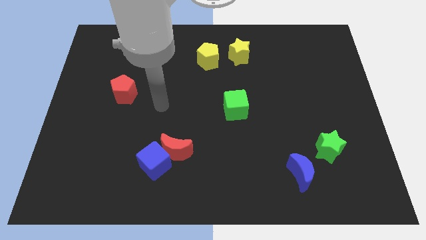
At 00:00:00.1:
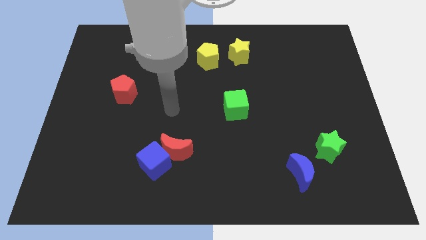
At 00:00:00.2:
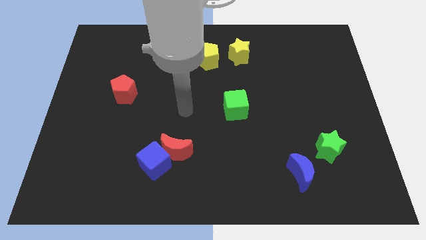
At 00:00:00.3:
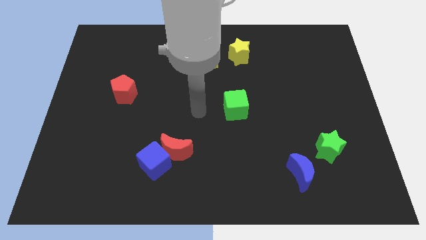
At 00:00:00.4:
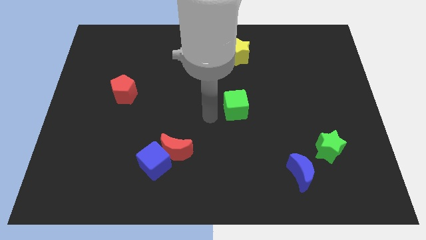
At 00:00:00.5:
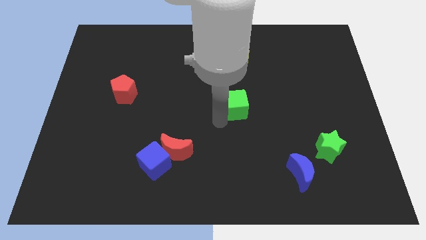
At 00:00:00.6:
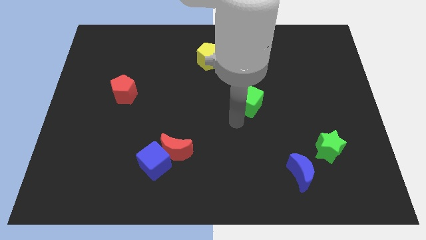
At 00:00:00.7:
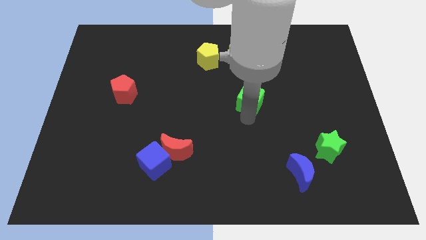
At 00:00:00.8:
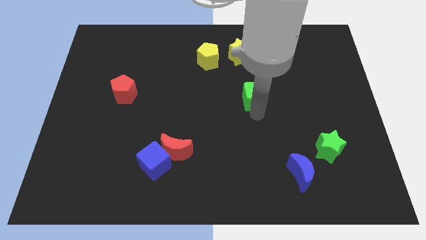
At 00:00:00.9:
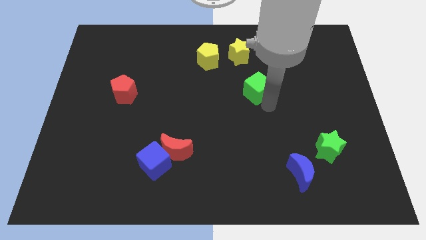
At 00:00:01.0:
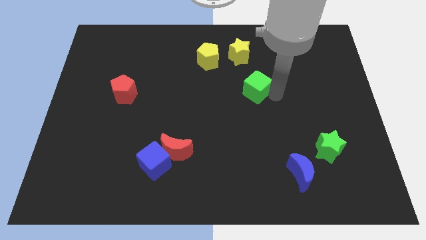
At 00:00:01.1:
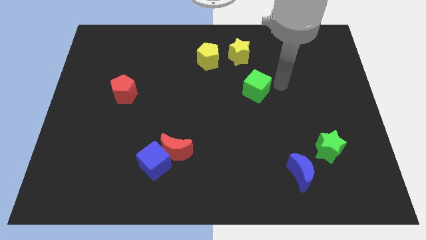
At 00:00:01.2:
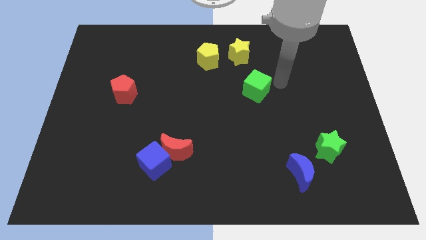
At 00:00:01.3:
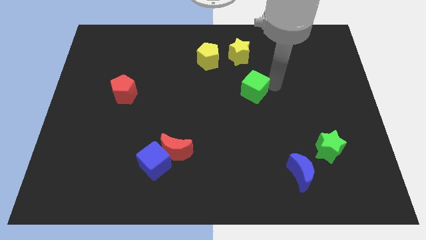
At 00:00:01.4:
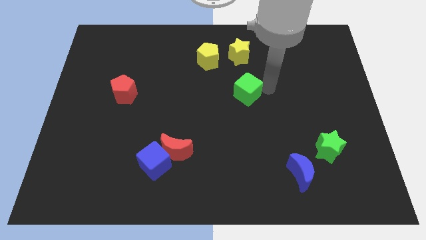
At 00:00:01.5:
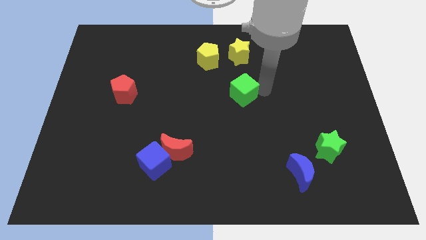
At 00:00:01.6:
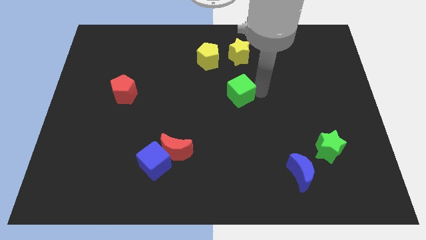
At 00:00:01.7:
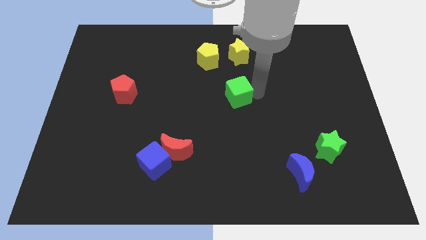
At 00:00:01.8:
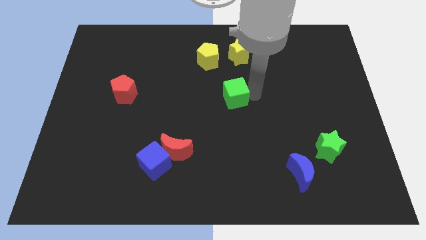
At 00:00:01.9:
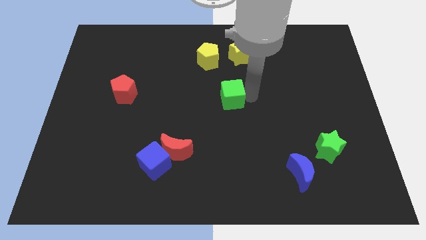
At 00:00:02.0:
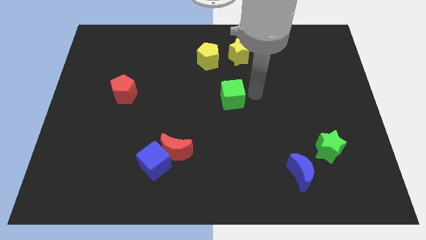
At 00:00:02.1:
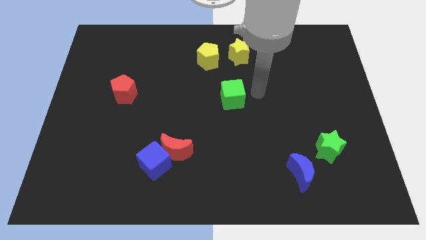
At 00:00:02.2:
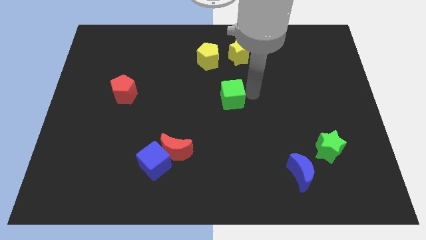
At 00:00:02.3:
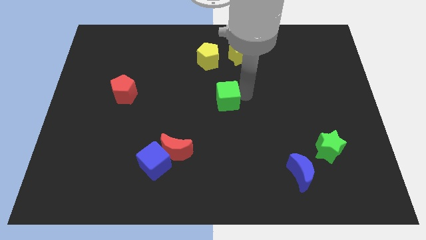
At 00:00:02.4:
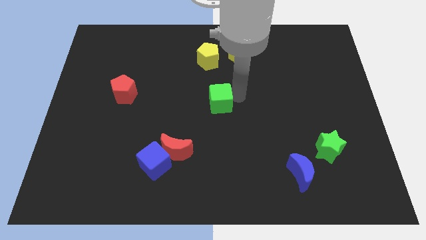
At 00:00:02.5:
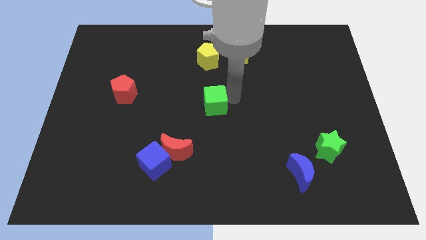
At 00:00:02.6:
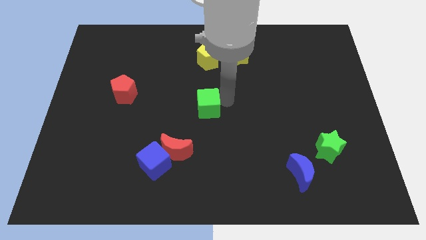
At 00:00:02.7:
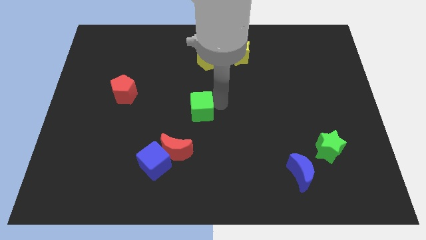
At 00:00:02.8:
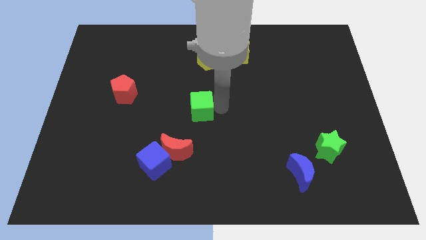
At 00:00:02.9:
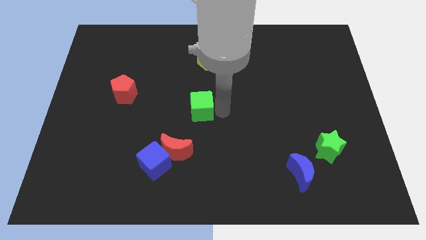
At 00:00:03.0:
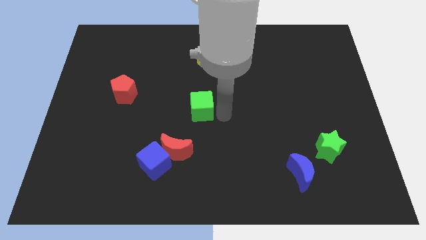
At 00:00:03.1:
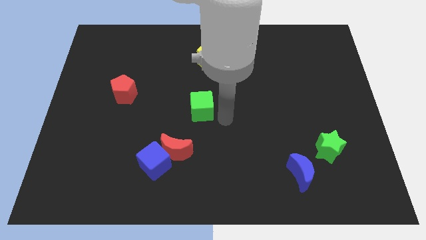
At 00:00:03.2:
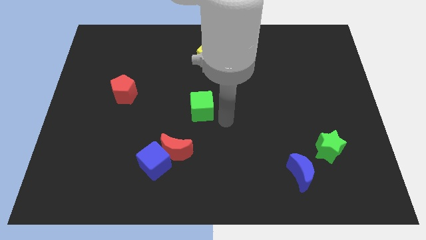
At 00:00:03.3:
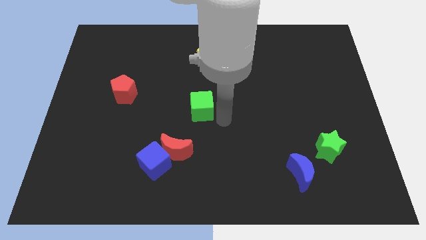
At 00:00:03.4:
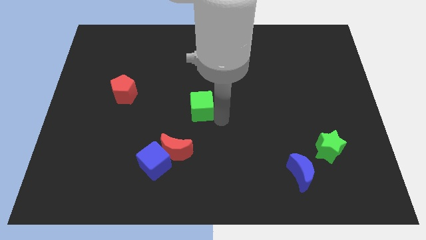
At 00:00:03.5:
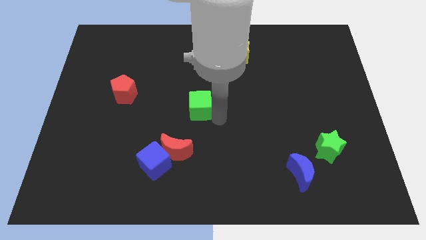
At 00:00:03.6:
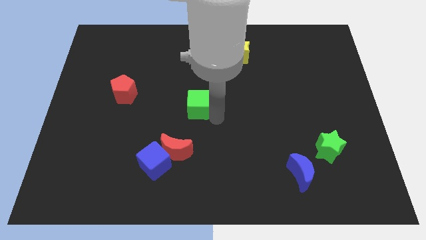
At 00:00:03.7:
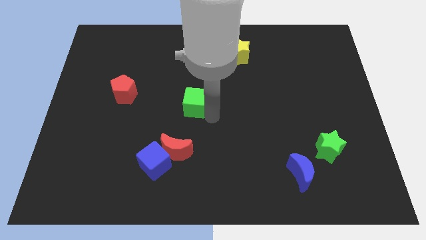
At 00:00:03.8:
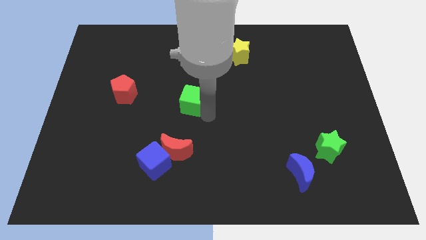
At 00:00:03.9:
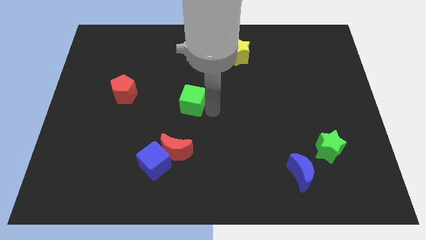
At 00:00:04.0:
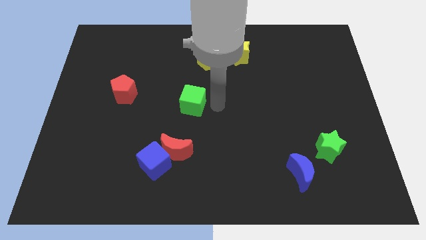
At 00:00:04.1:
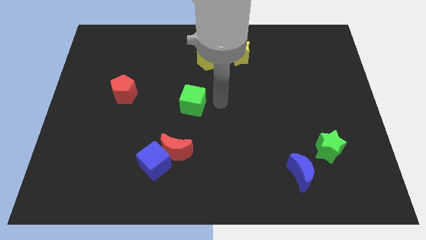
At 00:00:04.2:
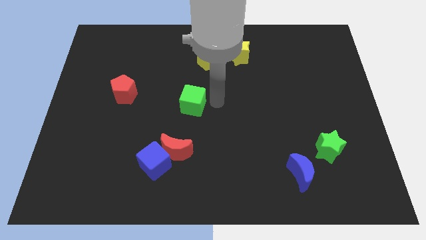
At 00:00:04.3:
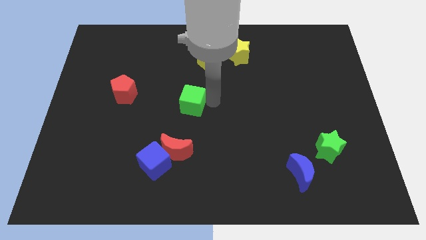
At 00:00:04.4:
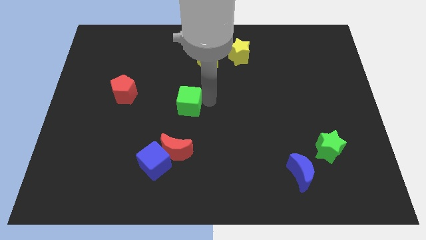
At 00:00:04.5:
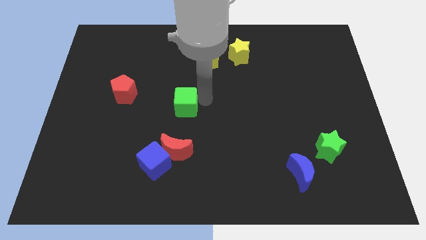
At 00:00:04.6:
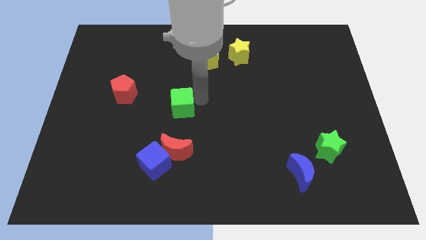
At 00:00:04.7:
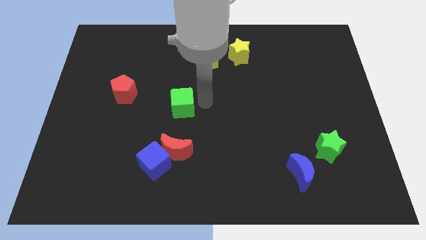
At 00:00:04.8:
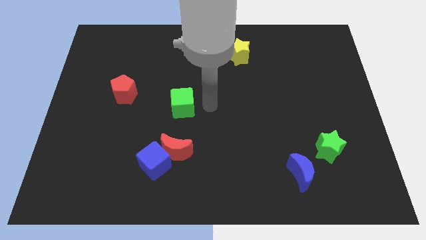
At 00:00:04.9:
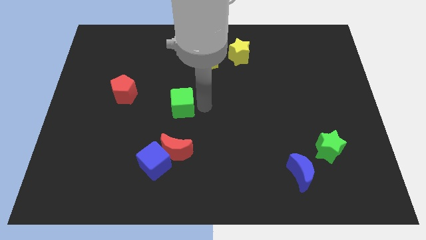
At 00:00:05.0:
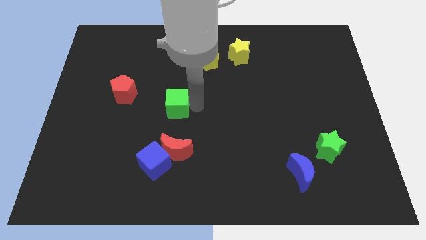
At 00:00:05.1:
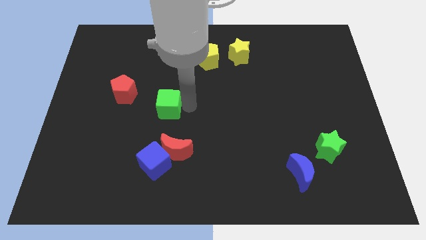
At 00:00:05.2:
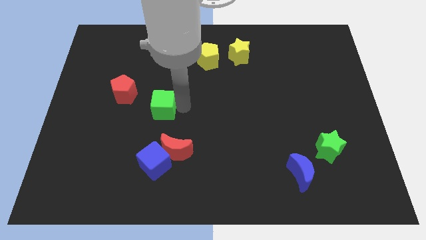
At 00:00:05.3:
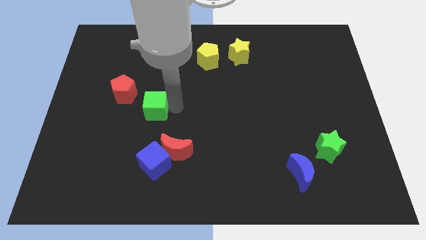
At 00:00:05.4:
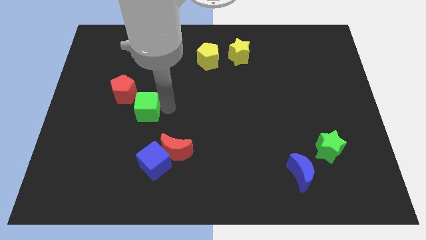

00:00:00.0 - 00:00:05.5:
push the green cube left

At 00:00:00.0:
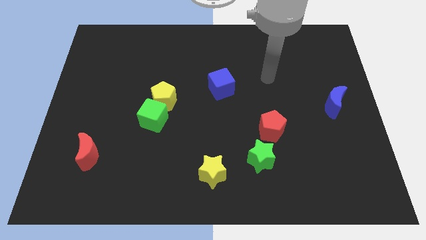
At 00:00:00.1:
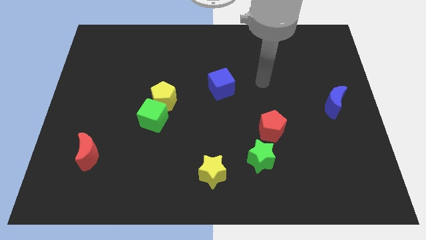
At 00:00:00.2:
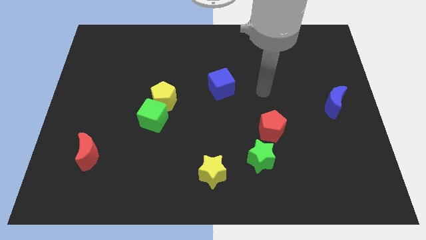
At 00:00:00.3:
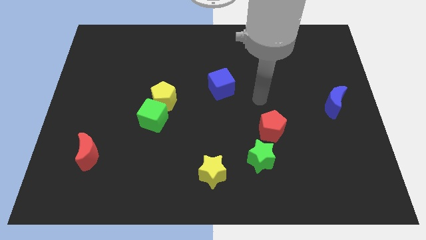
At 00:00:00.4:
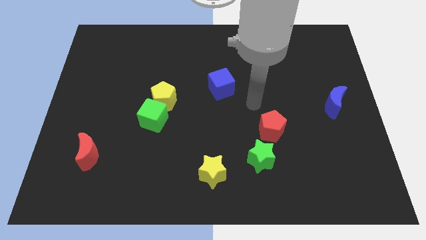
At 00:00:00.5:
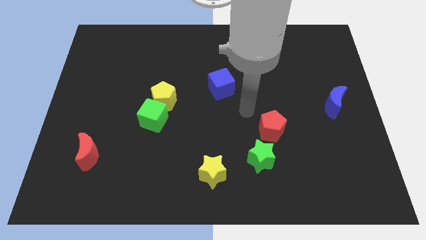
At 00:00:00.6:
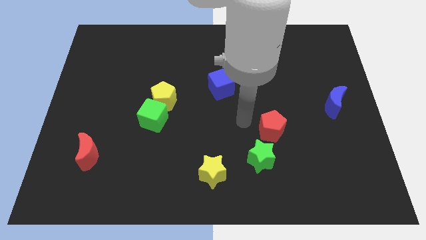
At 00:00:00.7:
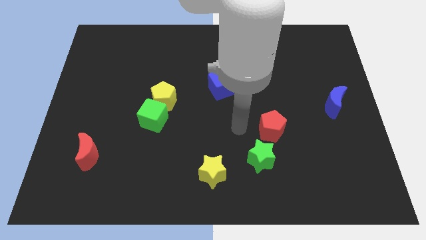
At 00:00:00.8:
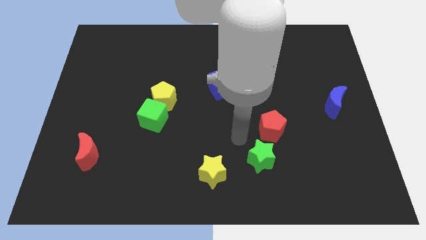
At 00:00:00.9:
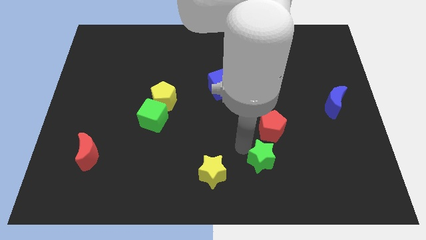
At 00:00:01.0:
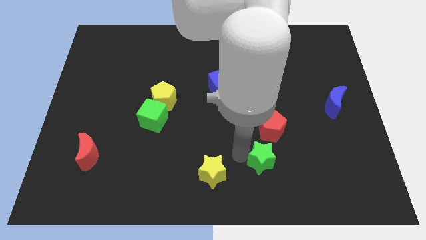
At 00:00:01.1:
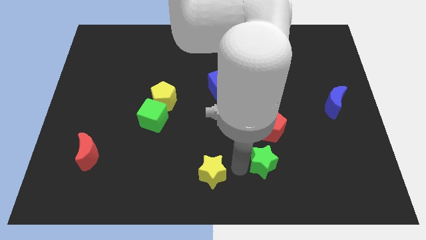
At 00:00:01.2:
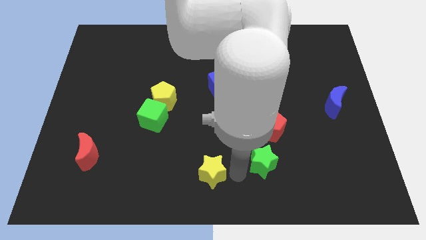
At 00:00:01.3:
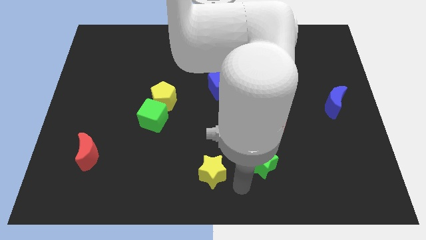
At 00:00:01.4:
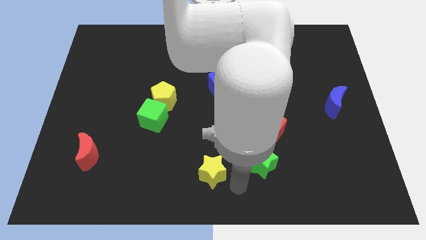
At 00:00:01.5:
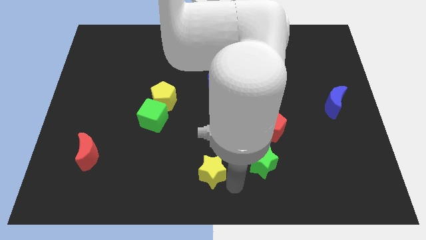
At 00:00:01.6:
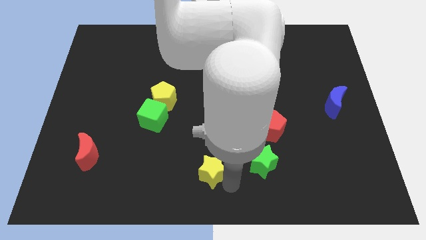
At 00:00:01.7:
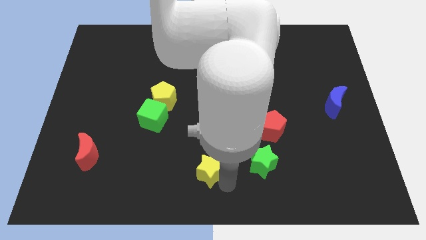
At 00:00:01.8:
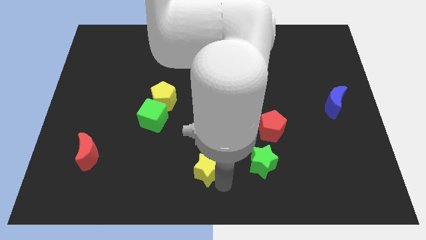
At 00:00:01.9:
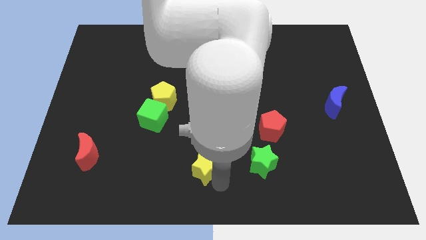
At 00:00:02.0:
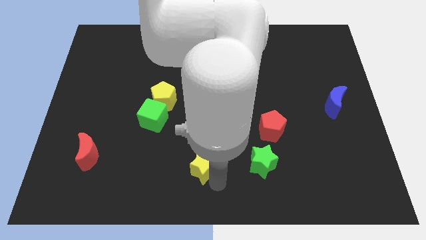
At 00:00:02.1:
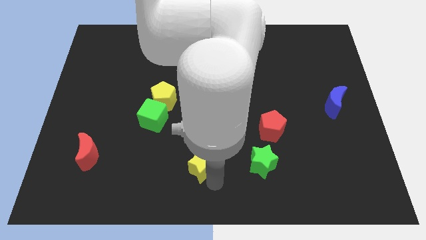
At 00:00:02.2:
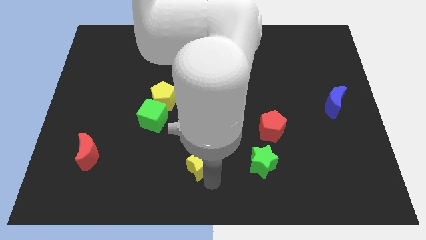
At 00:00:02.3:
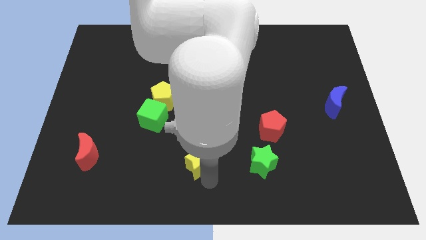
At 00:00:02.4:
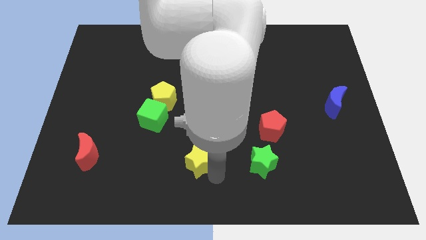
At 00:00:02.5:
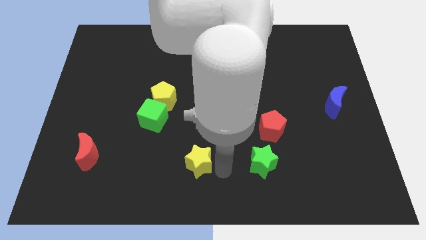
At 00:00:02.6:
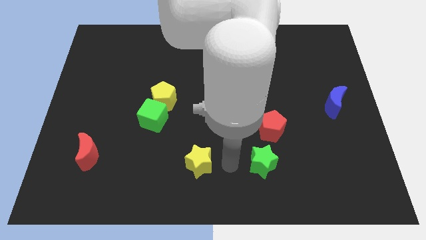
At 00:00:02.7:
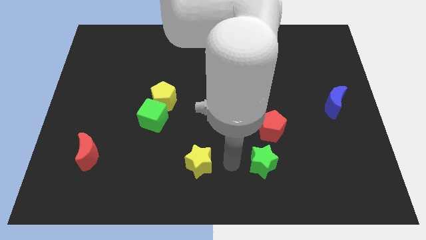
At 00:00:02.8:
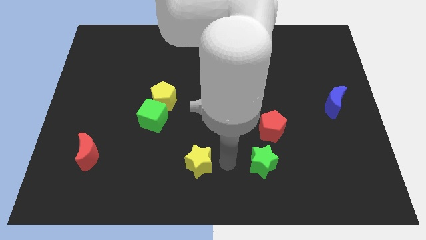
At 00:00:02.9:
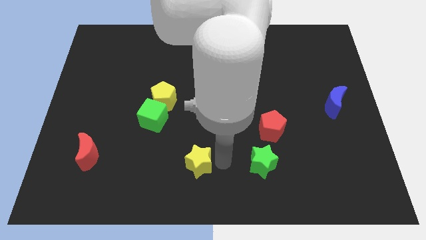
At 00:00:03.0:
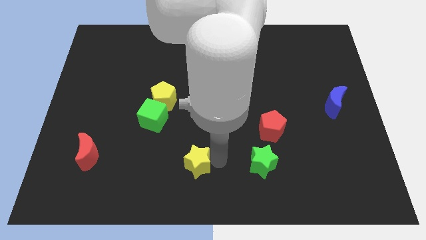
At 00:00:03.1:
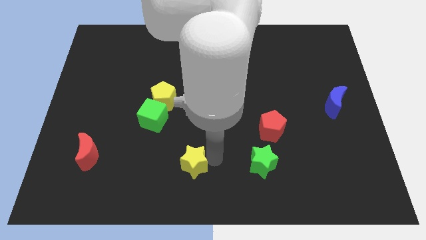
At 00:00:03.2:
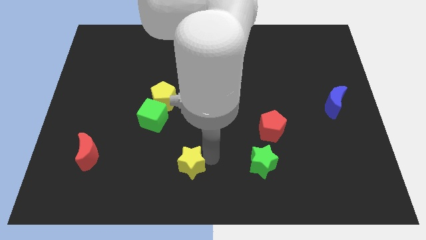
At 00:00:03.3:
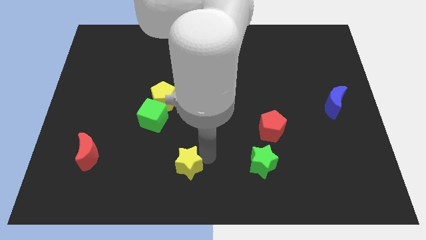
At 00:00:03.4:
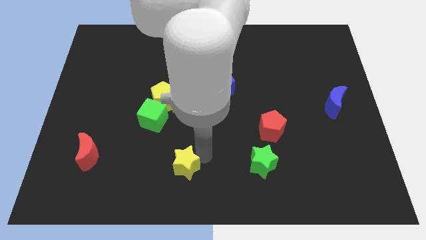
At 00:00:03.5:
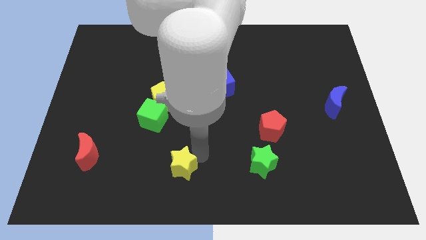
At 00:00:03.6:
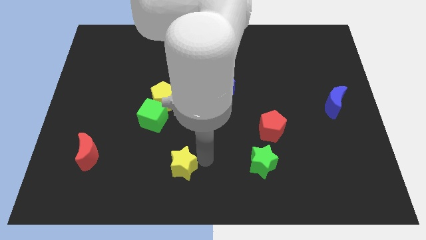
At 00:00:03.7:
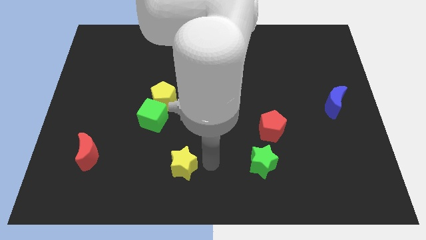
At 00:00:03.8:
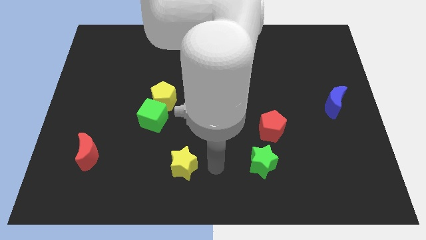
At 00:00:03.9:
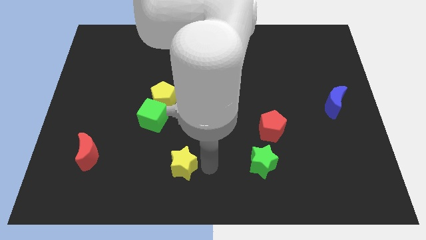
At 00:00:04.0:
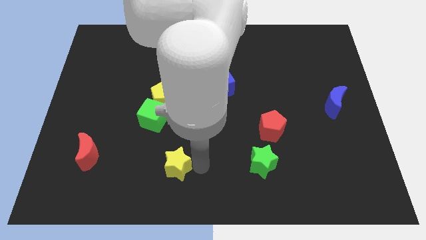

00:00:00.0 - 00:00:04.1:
push the yellow star to the left slightly
